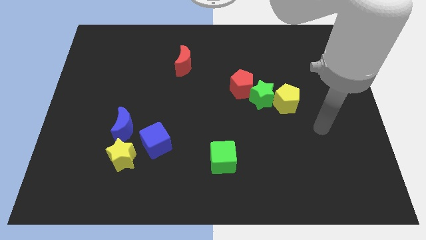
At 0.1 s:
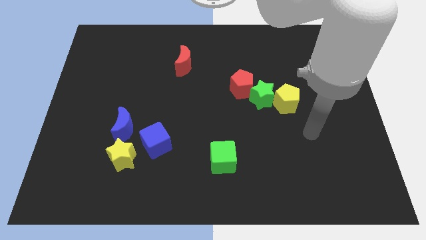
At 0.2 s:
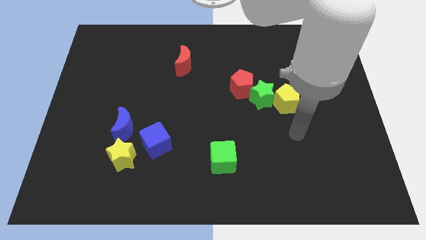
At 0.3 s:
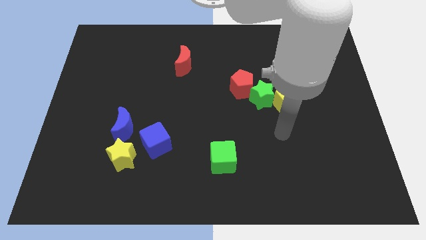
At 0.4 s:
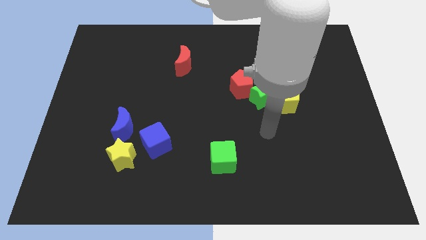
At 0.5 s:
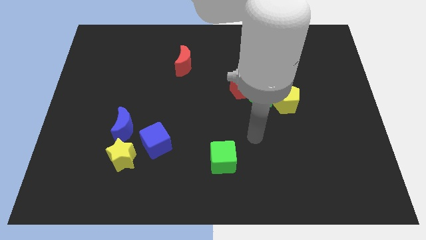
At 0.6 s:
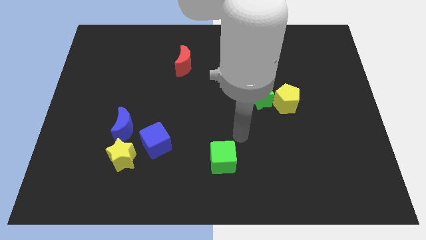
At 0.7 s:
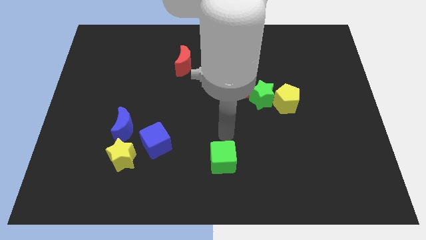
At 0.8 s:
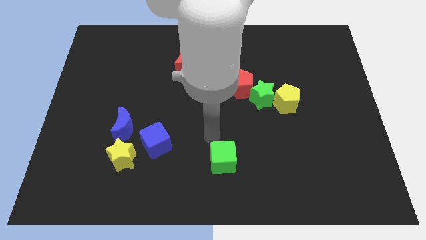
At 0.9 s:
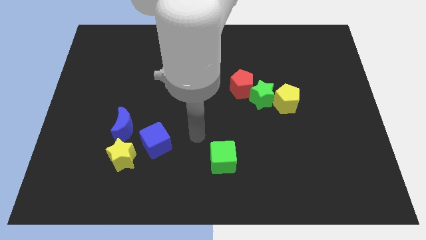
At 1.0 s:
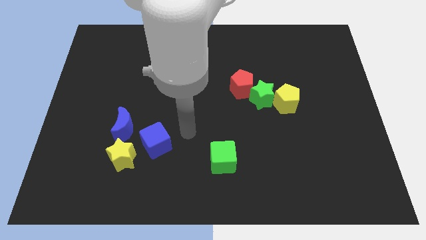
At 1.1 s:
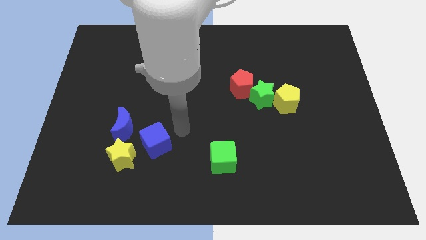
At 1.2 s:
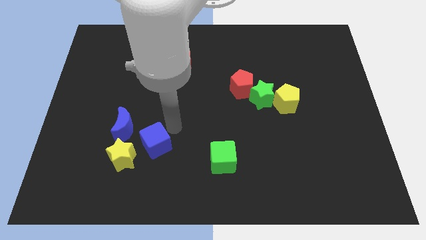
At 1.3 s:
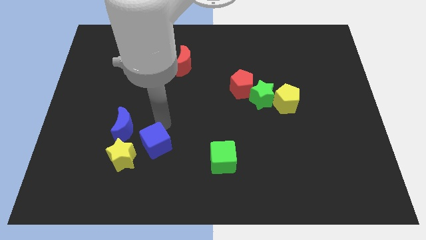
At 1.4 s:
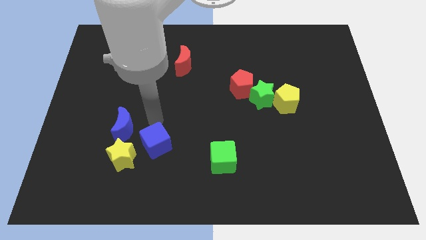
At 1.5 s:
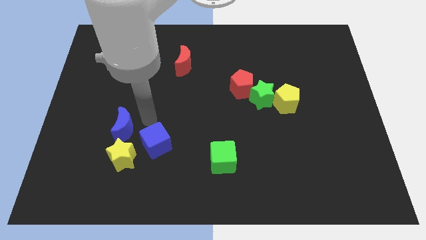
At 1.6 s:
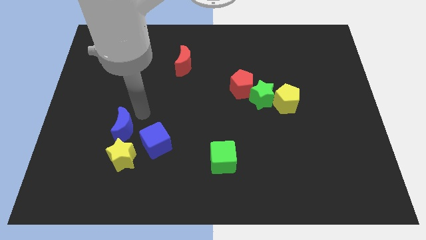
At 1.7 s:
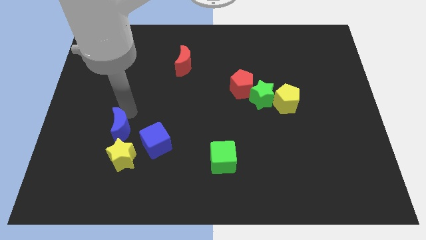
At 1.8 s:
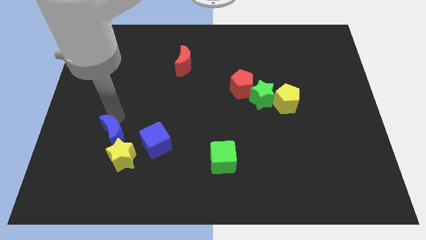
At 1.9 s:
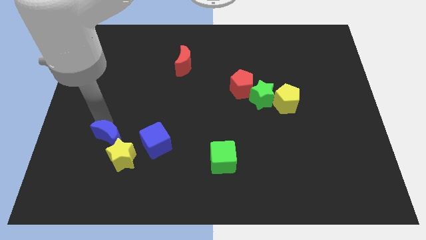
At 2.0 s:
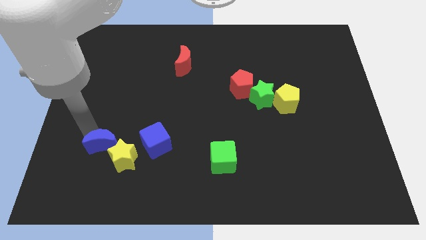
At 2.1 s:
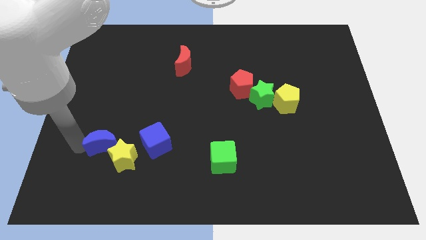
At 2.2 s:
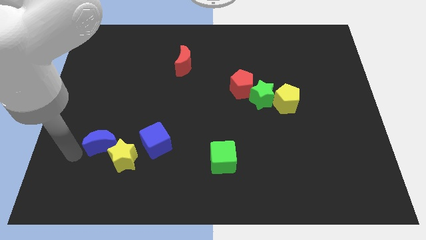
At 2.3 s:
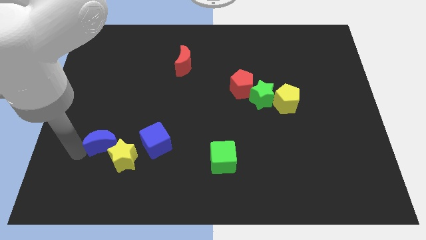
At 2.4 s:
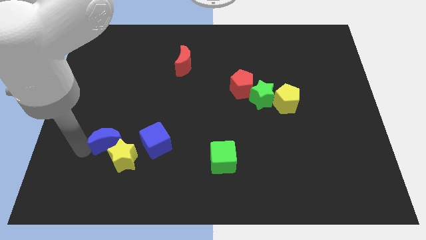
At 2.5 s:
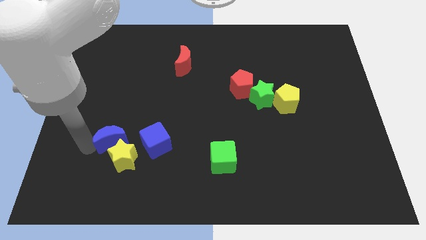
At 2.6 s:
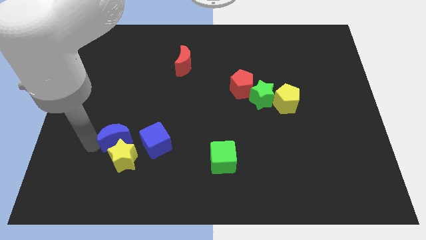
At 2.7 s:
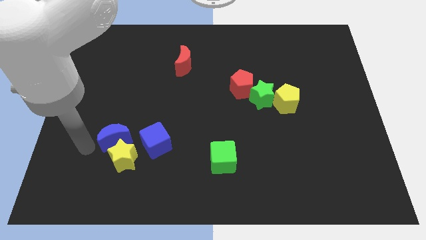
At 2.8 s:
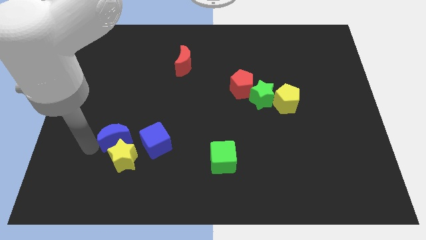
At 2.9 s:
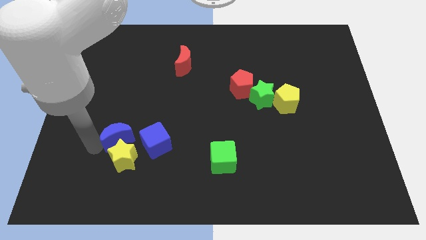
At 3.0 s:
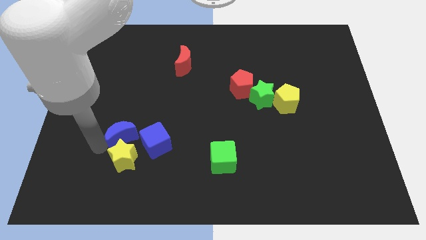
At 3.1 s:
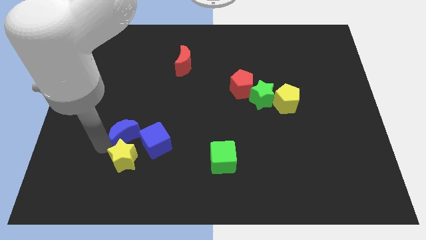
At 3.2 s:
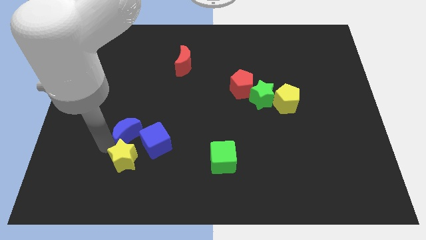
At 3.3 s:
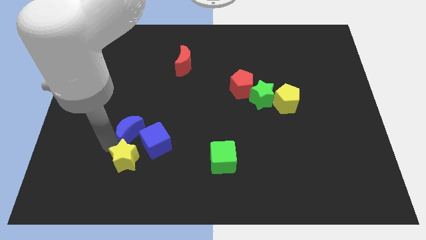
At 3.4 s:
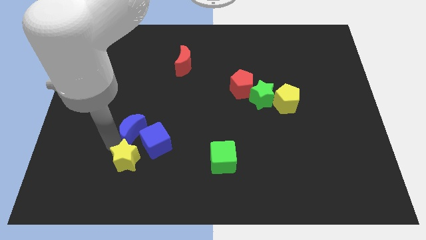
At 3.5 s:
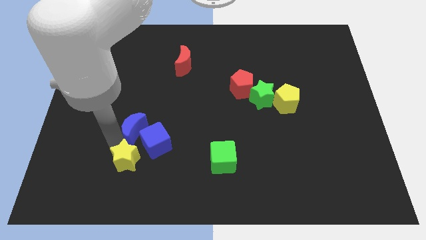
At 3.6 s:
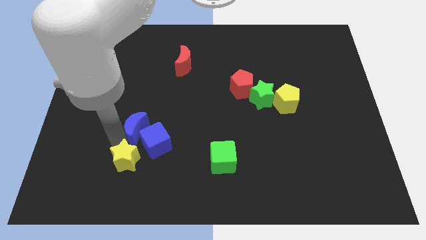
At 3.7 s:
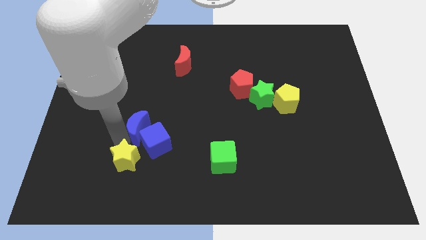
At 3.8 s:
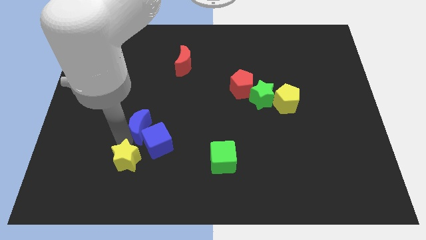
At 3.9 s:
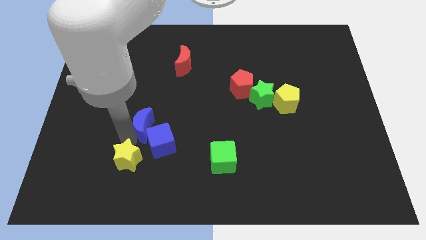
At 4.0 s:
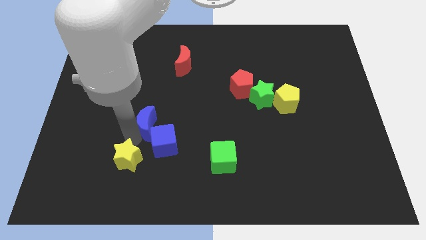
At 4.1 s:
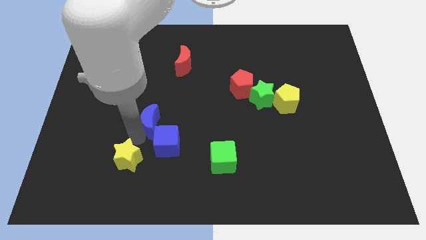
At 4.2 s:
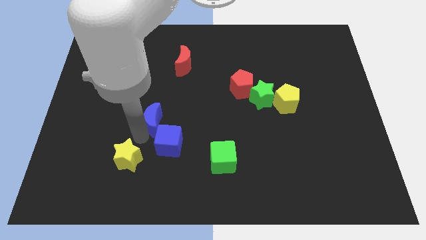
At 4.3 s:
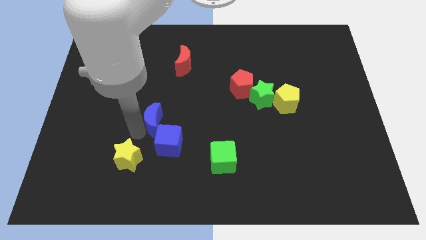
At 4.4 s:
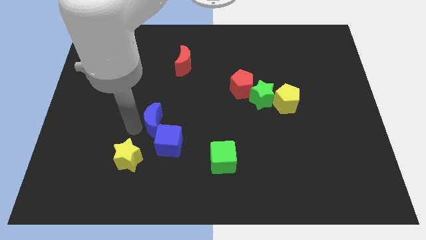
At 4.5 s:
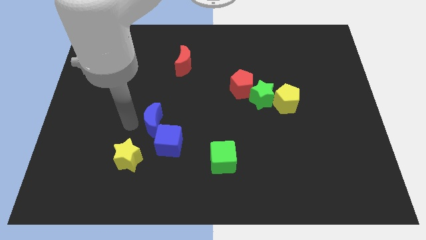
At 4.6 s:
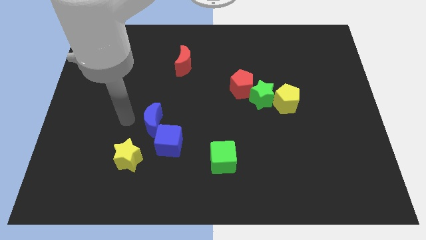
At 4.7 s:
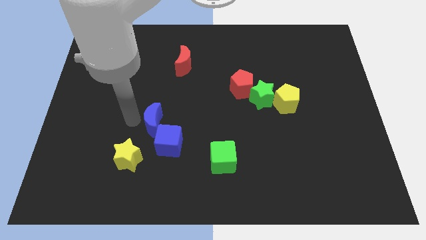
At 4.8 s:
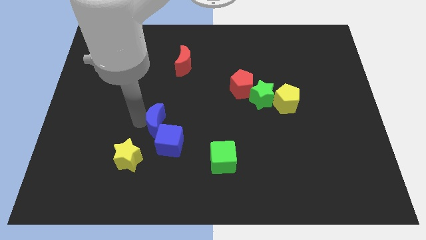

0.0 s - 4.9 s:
slightly slide the blue moon right

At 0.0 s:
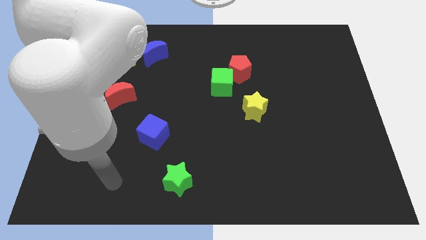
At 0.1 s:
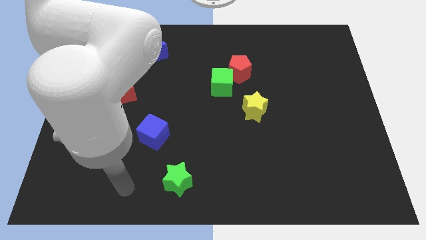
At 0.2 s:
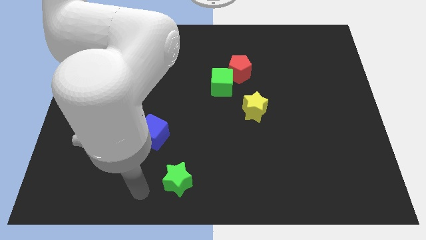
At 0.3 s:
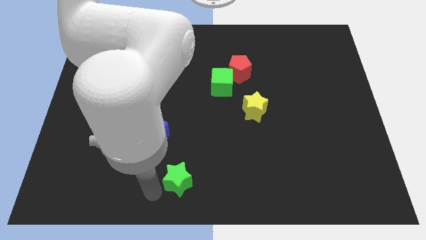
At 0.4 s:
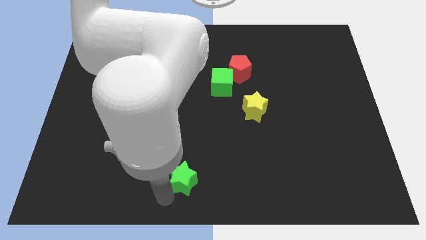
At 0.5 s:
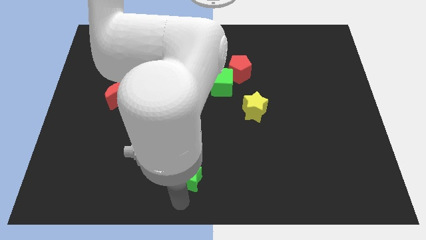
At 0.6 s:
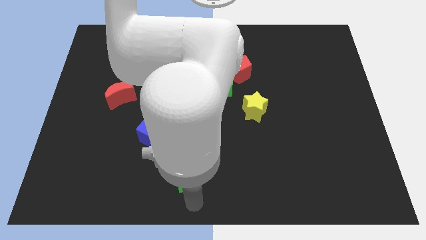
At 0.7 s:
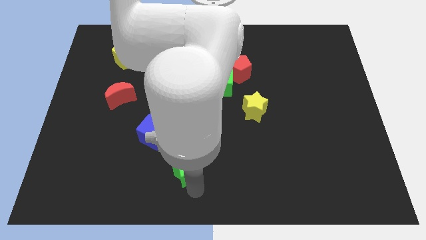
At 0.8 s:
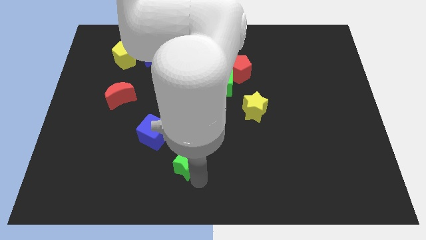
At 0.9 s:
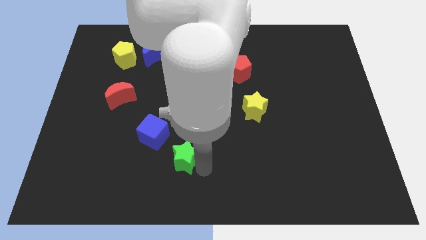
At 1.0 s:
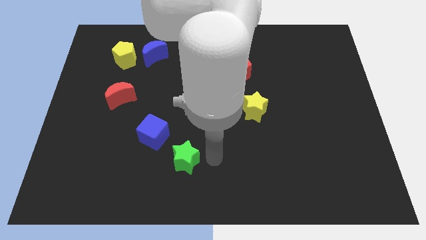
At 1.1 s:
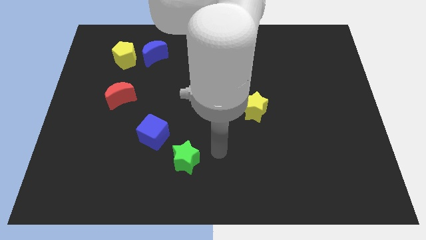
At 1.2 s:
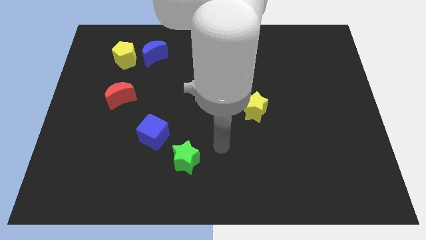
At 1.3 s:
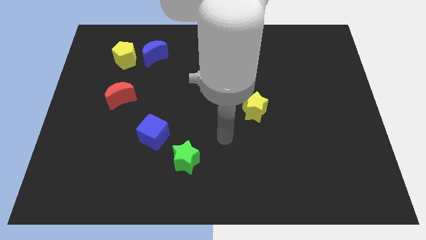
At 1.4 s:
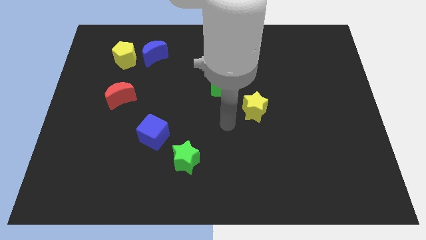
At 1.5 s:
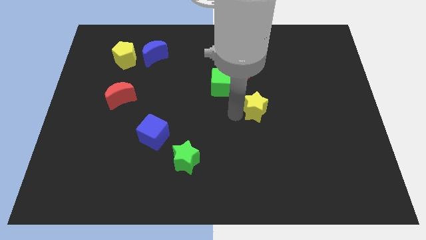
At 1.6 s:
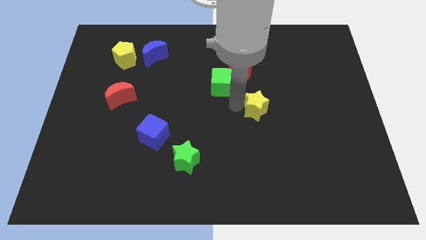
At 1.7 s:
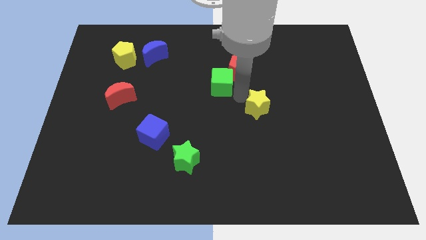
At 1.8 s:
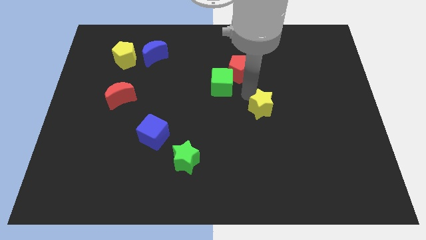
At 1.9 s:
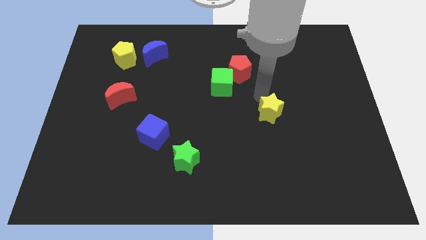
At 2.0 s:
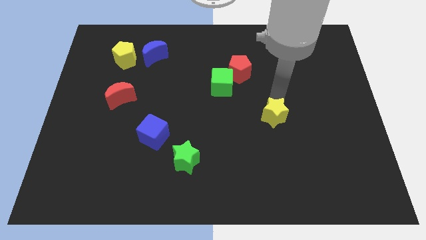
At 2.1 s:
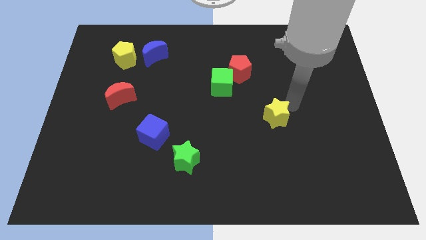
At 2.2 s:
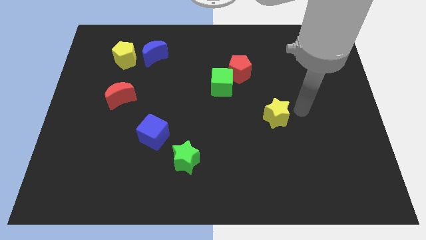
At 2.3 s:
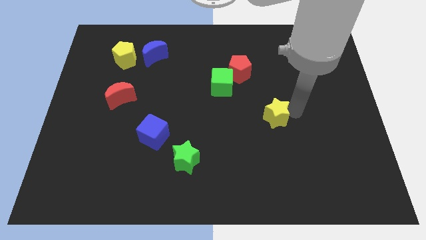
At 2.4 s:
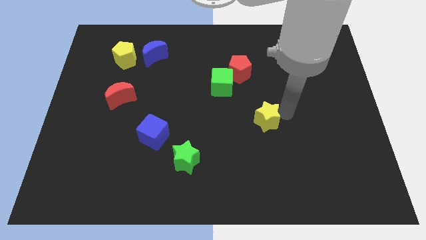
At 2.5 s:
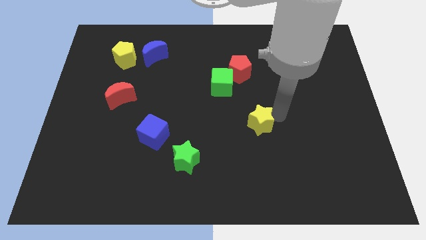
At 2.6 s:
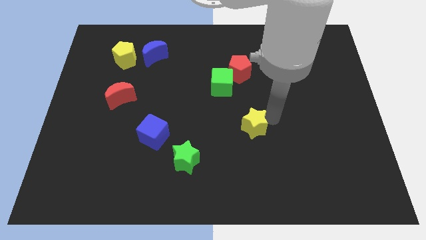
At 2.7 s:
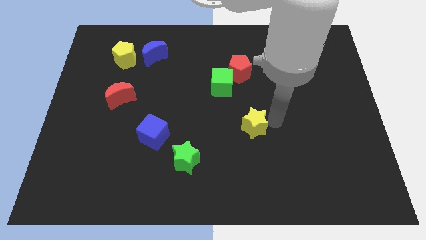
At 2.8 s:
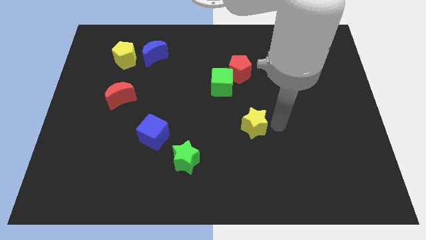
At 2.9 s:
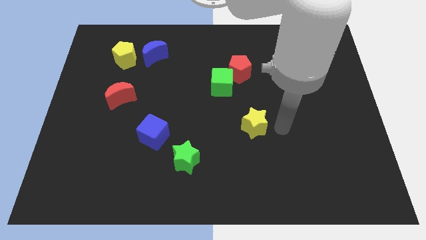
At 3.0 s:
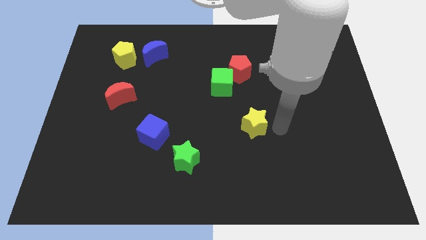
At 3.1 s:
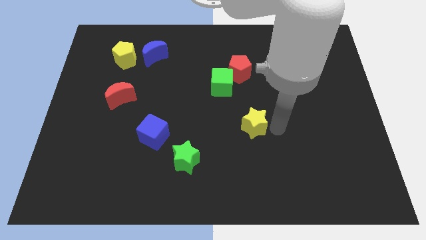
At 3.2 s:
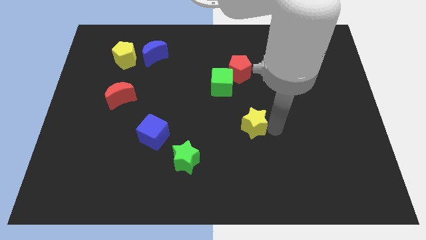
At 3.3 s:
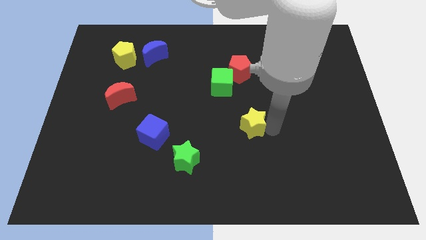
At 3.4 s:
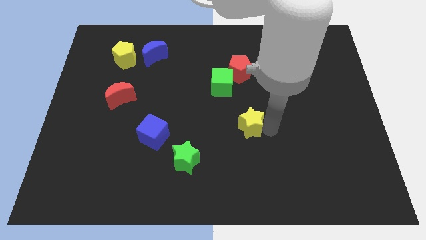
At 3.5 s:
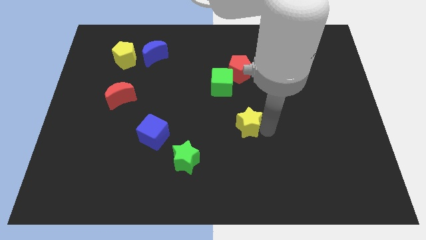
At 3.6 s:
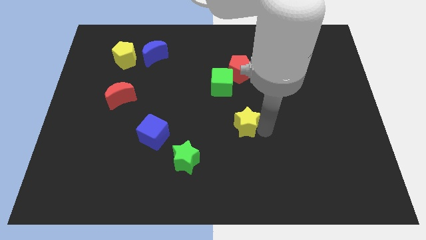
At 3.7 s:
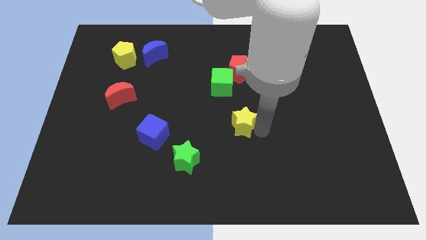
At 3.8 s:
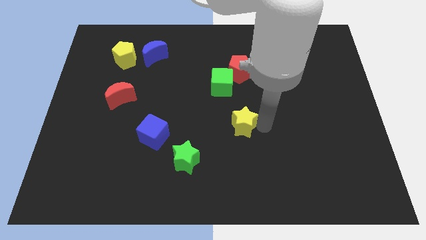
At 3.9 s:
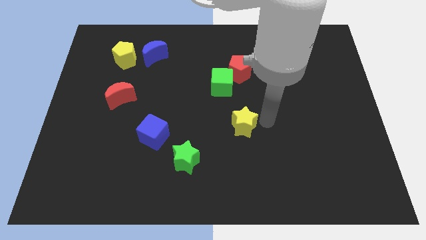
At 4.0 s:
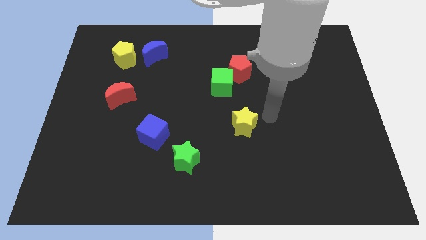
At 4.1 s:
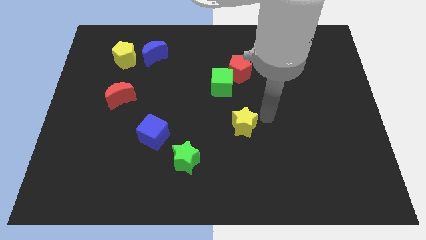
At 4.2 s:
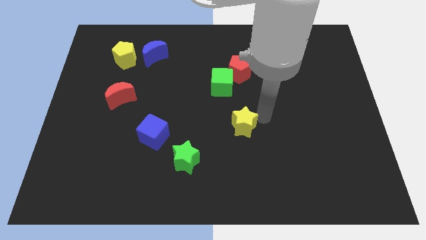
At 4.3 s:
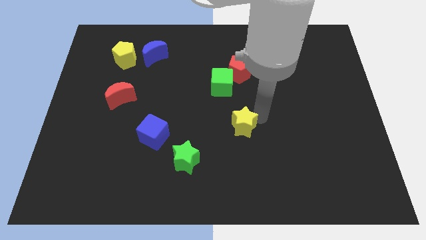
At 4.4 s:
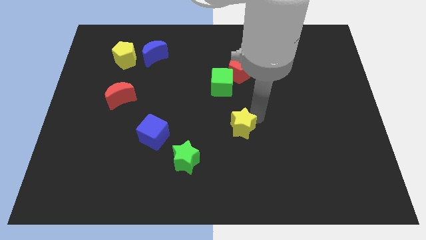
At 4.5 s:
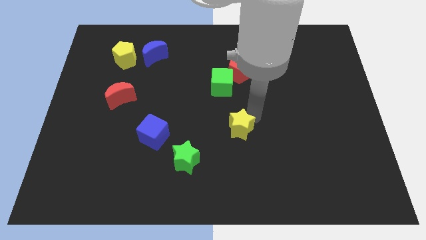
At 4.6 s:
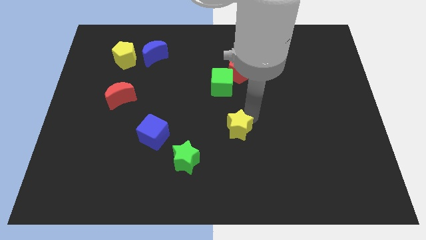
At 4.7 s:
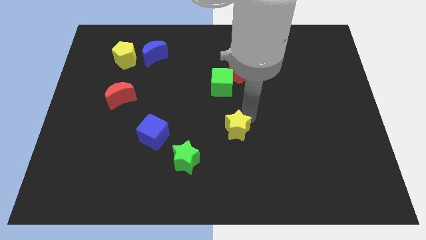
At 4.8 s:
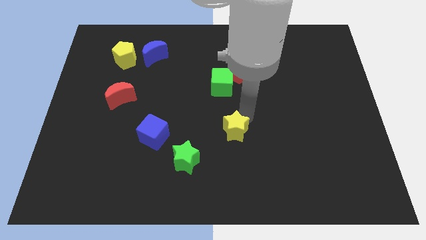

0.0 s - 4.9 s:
slightly move the yellow star downwards and then left
